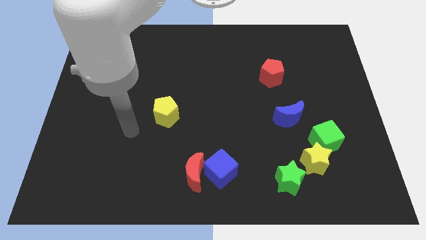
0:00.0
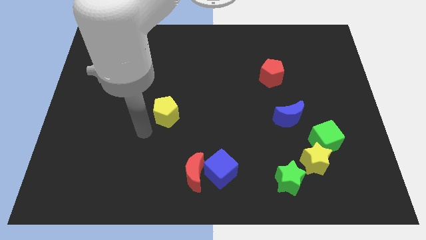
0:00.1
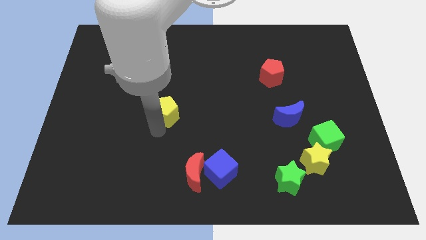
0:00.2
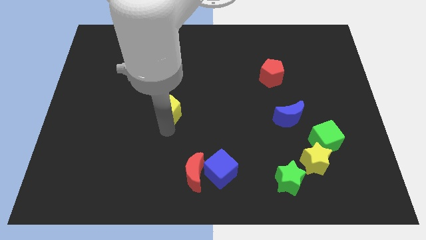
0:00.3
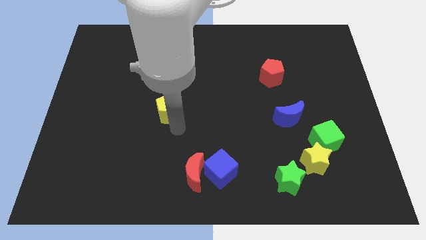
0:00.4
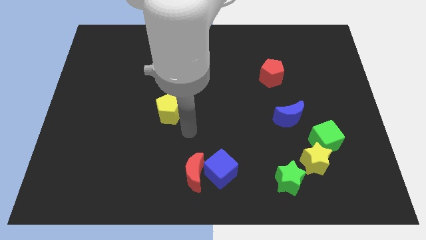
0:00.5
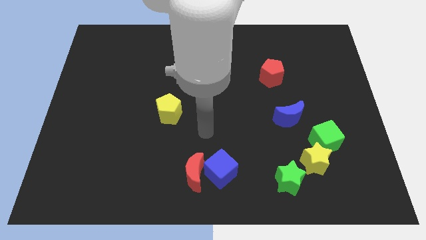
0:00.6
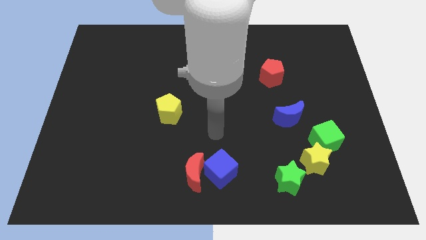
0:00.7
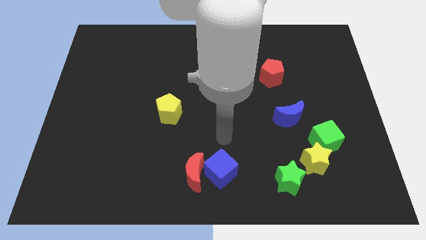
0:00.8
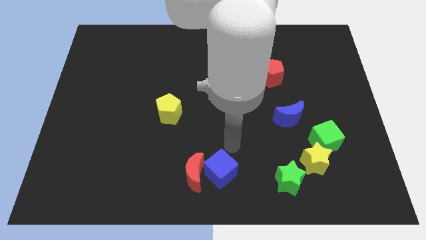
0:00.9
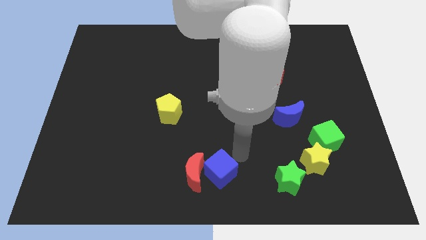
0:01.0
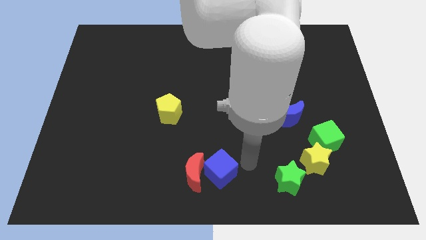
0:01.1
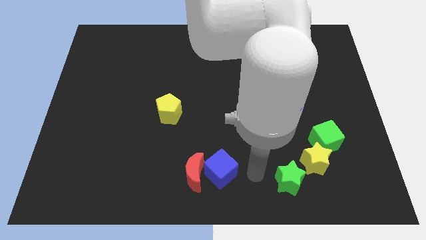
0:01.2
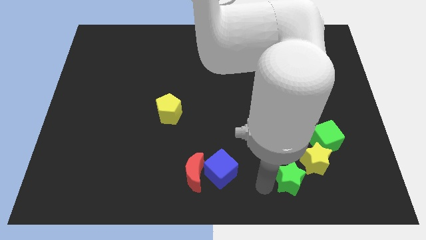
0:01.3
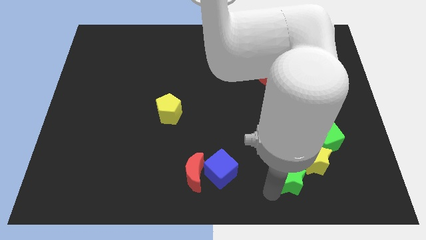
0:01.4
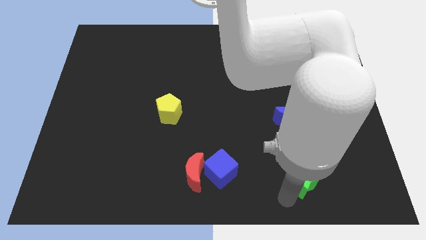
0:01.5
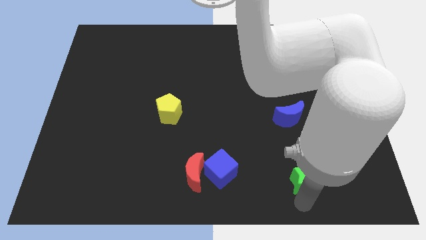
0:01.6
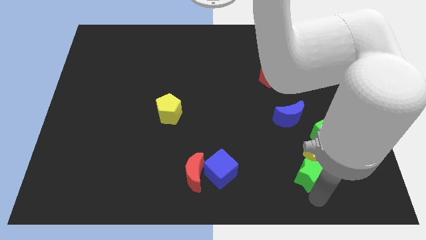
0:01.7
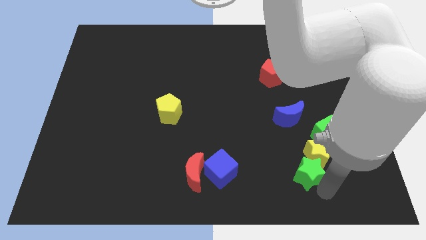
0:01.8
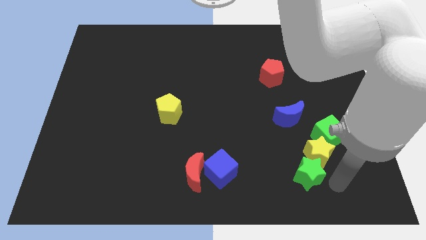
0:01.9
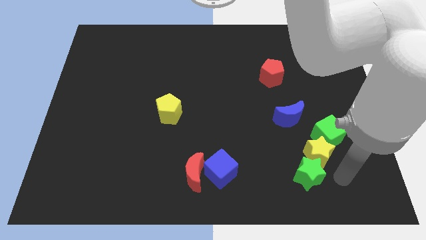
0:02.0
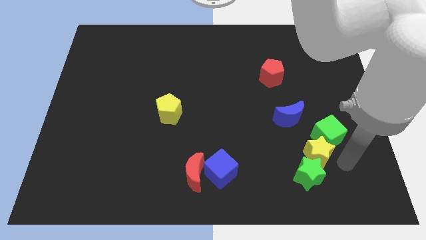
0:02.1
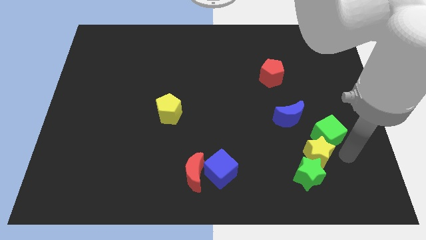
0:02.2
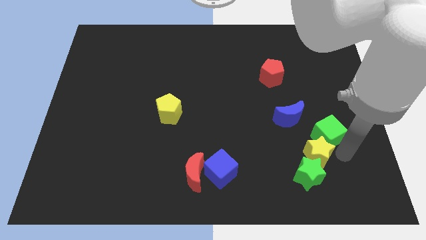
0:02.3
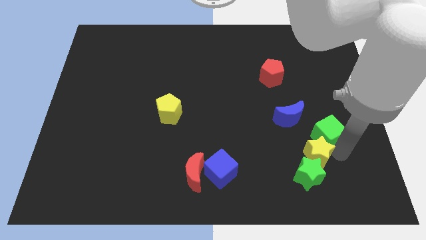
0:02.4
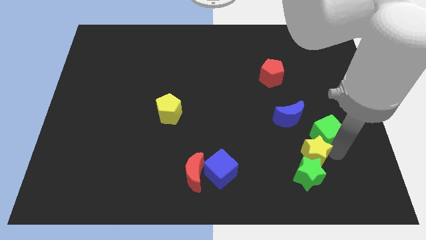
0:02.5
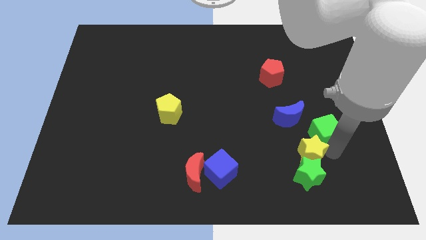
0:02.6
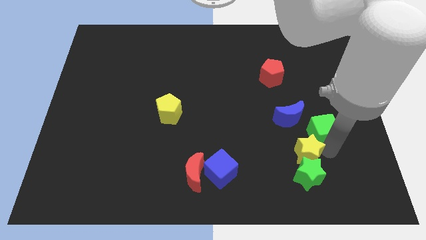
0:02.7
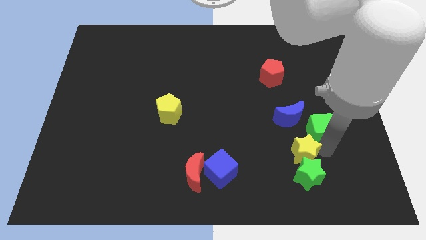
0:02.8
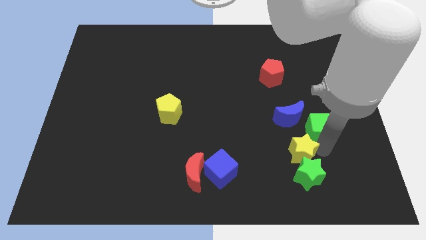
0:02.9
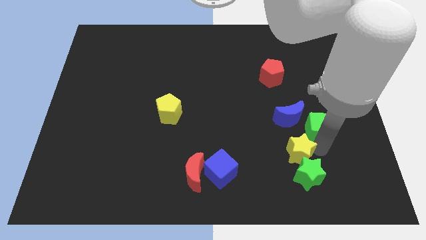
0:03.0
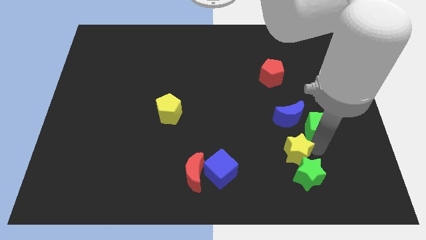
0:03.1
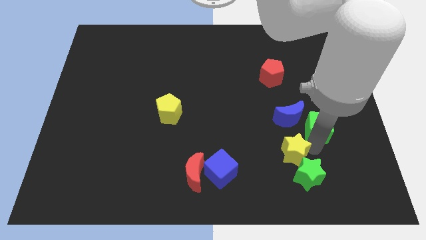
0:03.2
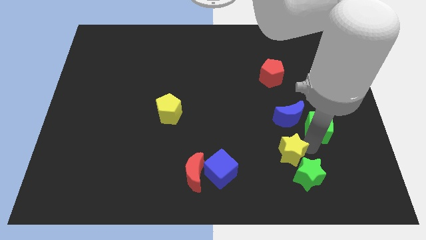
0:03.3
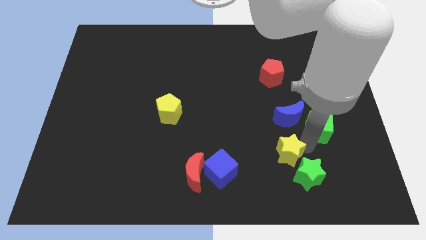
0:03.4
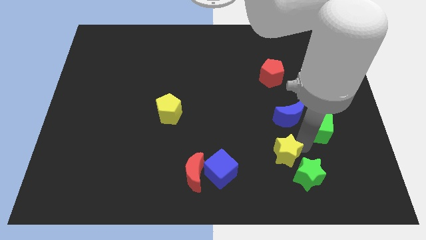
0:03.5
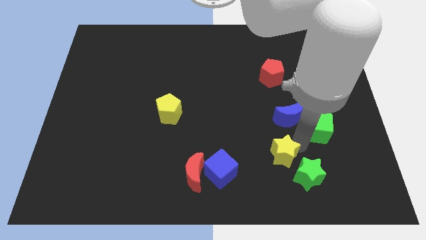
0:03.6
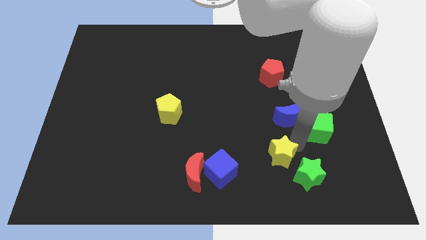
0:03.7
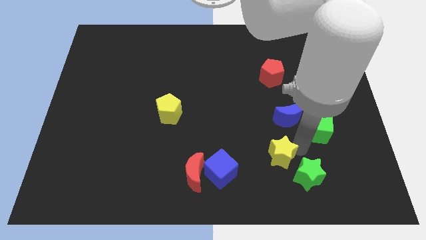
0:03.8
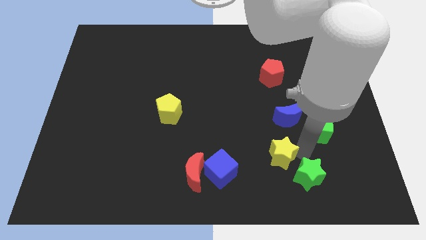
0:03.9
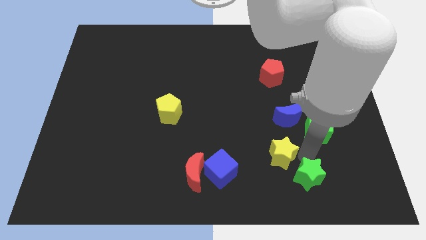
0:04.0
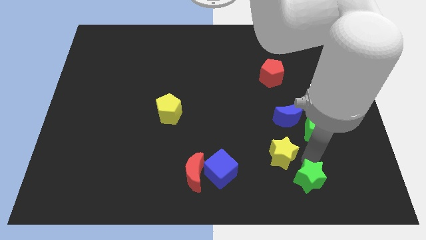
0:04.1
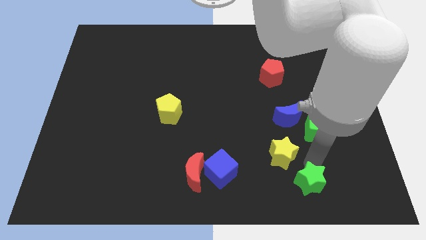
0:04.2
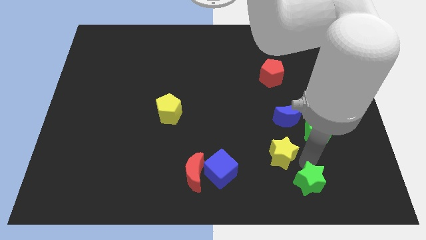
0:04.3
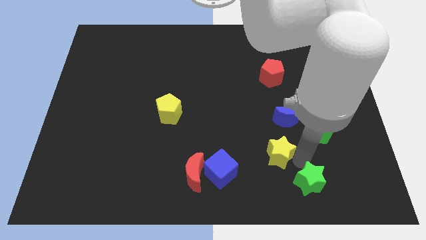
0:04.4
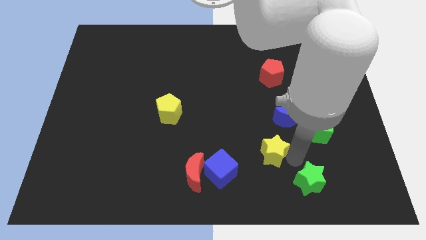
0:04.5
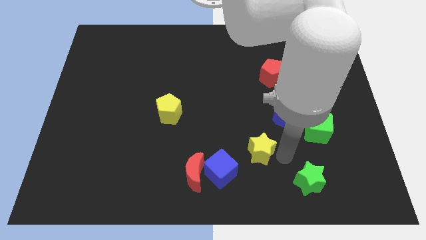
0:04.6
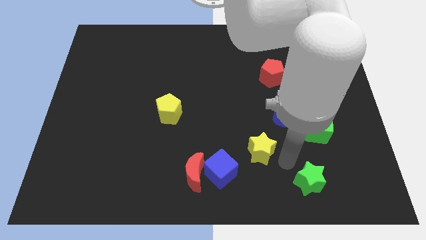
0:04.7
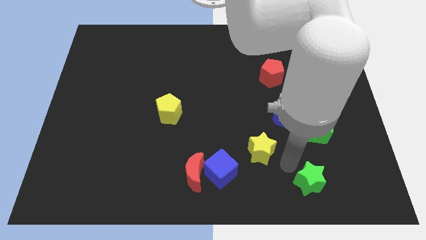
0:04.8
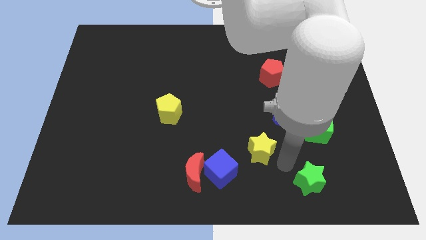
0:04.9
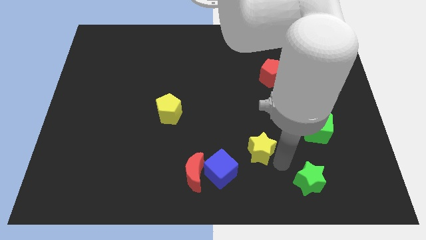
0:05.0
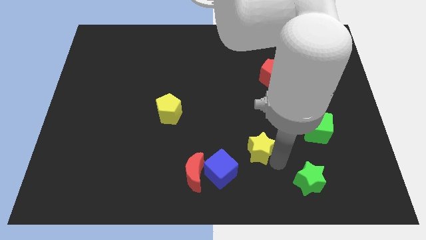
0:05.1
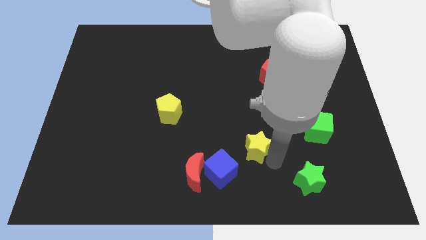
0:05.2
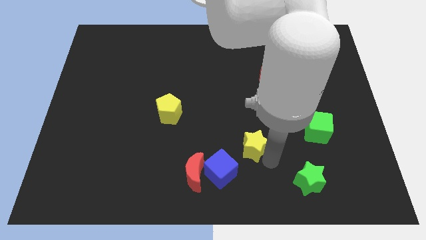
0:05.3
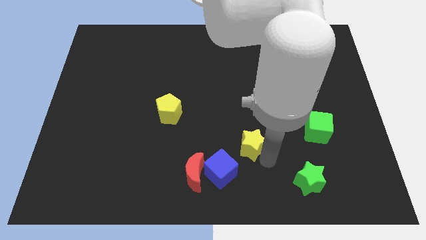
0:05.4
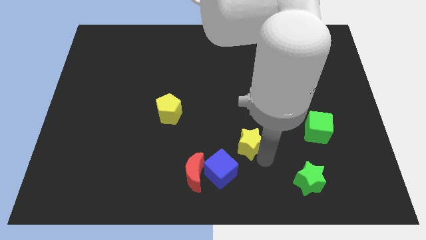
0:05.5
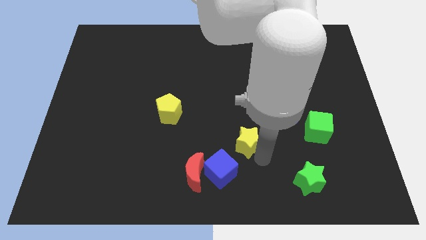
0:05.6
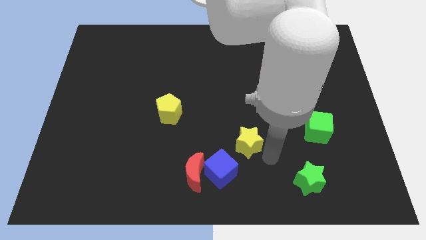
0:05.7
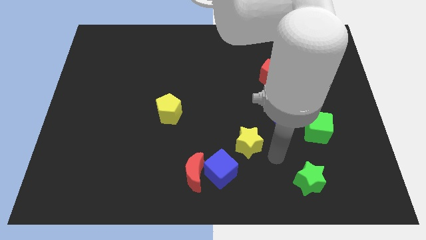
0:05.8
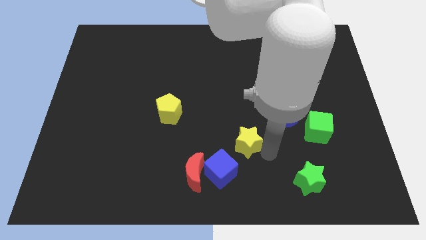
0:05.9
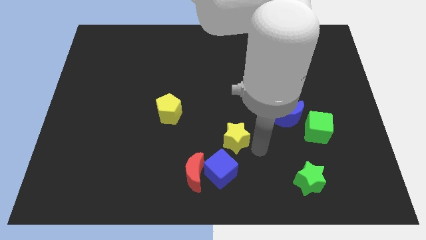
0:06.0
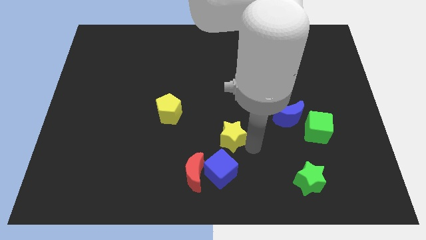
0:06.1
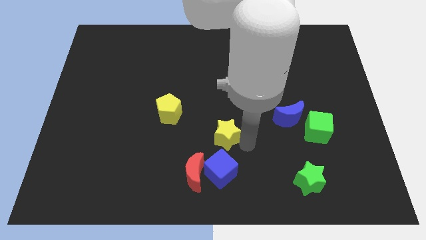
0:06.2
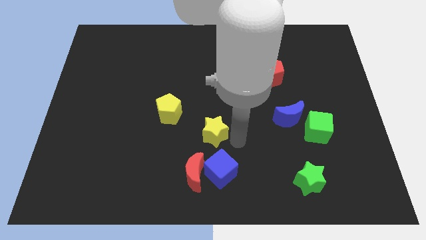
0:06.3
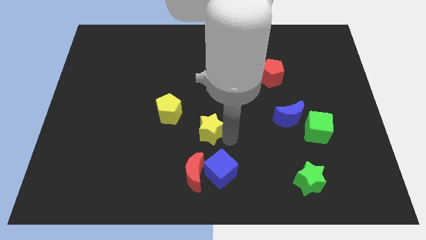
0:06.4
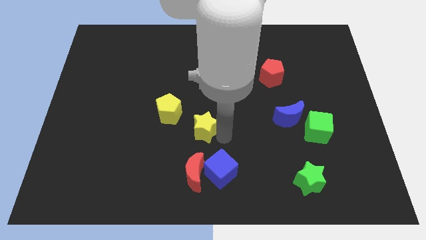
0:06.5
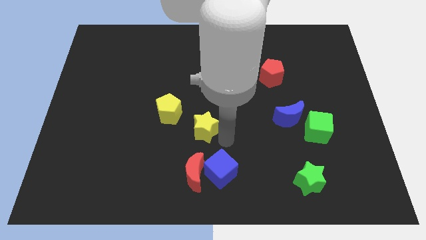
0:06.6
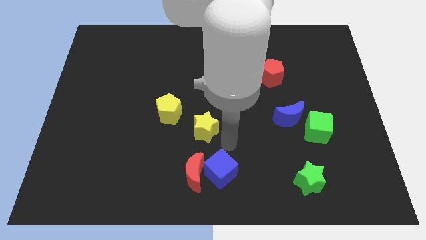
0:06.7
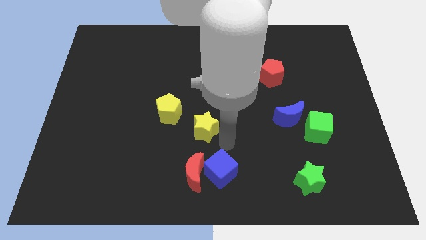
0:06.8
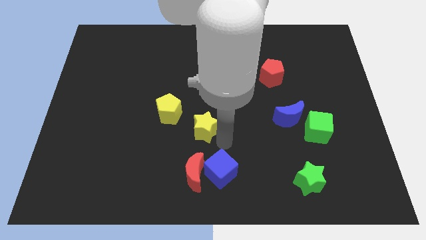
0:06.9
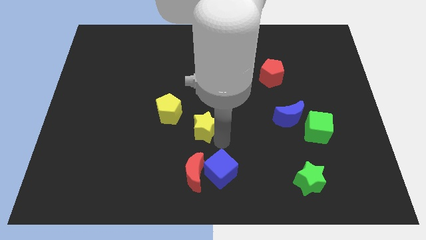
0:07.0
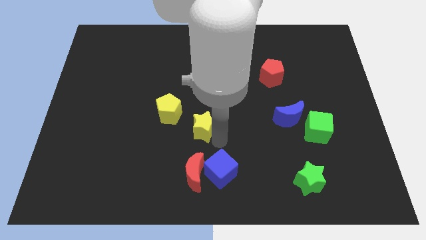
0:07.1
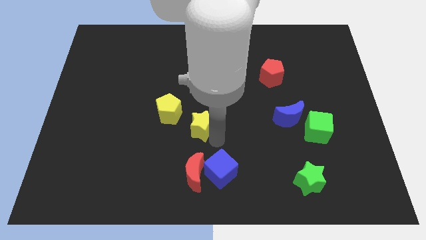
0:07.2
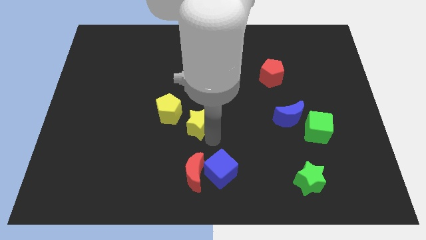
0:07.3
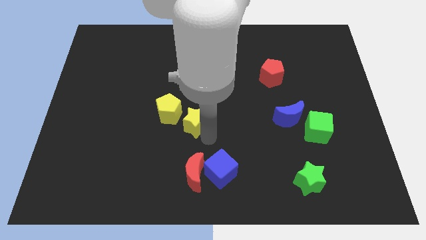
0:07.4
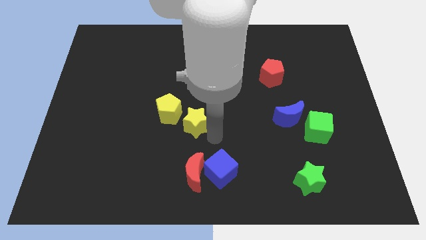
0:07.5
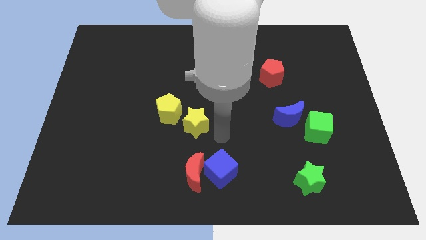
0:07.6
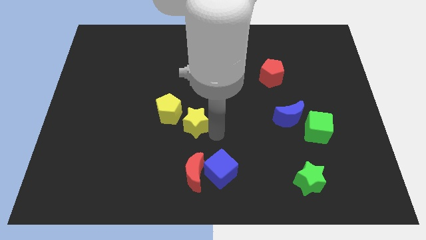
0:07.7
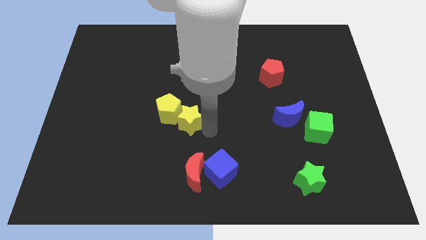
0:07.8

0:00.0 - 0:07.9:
slide the yellow star close to the yellow pentagon
